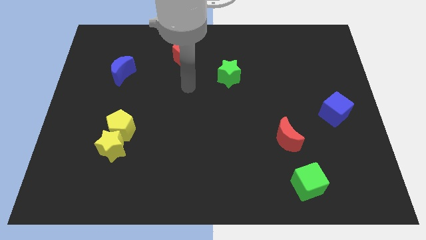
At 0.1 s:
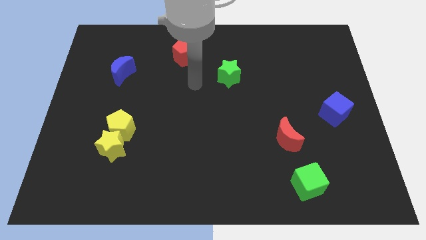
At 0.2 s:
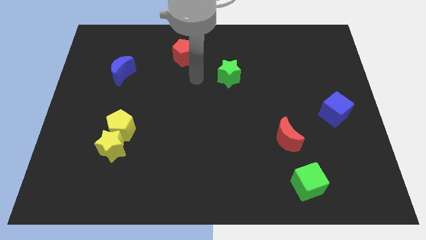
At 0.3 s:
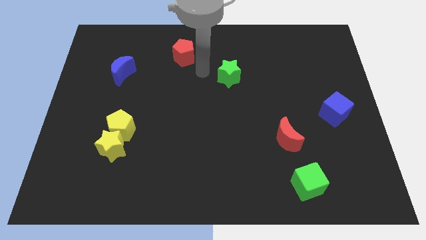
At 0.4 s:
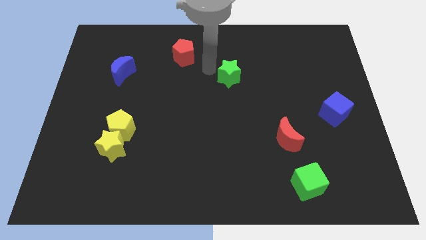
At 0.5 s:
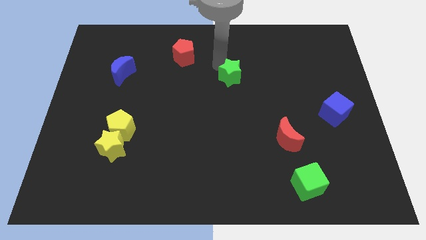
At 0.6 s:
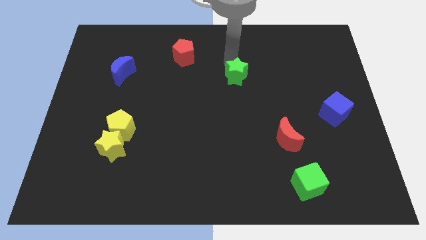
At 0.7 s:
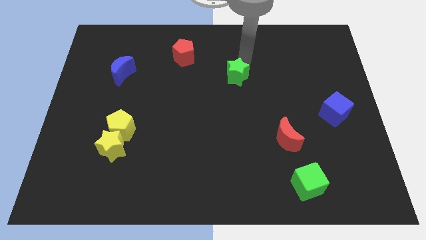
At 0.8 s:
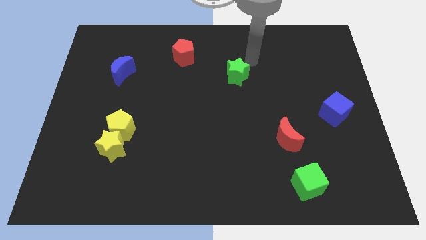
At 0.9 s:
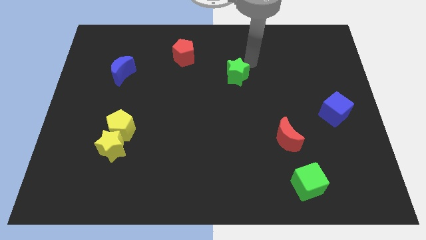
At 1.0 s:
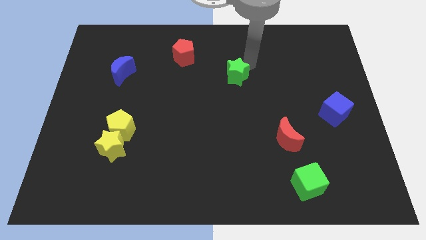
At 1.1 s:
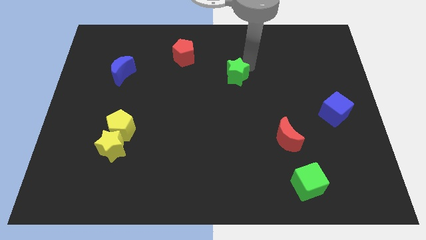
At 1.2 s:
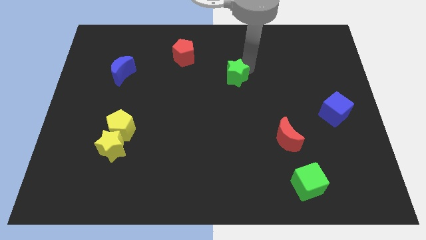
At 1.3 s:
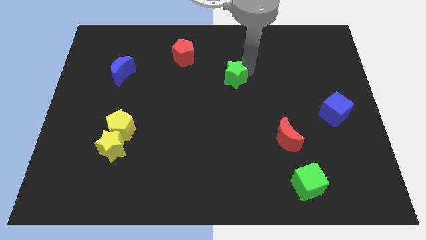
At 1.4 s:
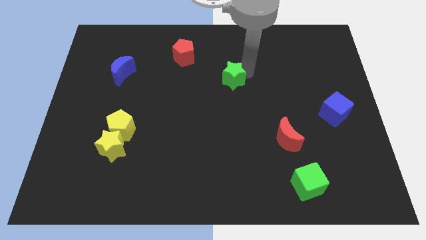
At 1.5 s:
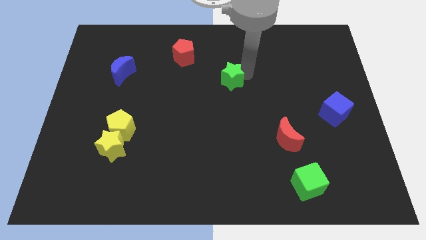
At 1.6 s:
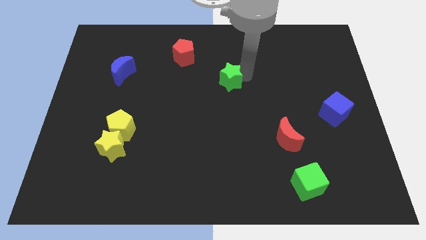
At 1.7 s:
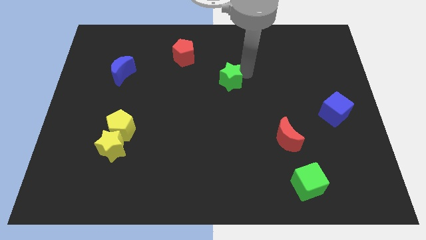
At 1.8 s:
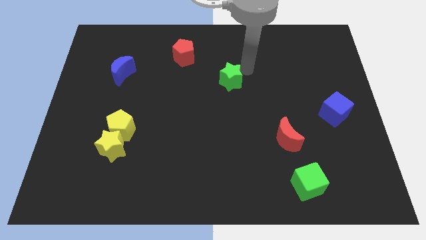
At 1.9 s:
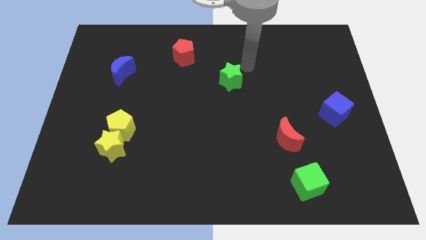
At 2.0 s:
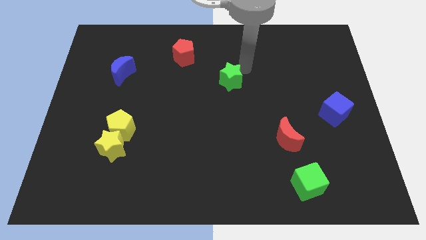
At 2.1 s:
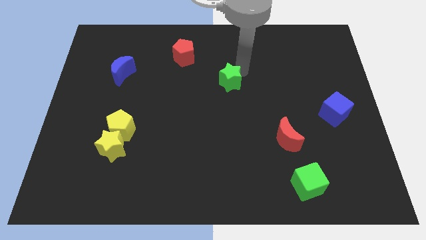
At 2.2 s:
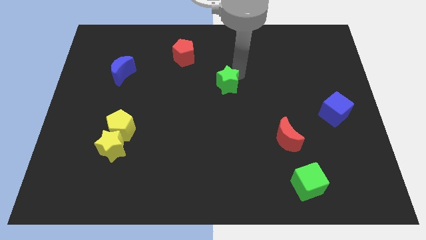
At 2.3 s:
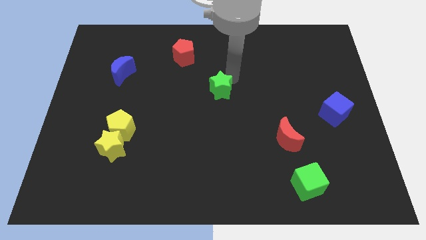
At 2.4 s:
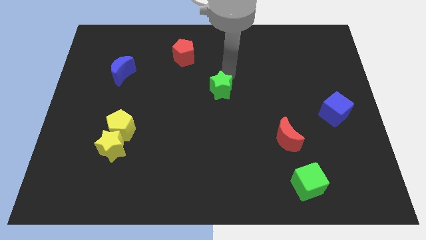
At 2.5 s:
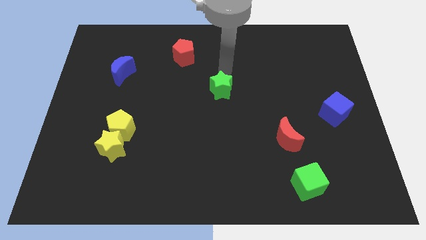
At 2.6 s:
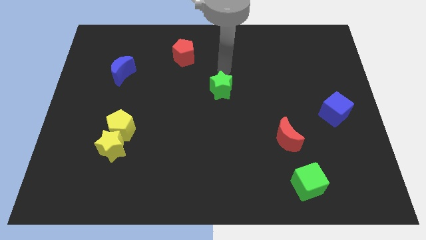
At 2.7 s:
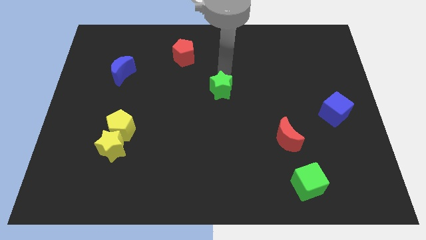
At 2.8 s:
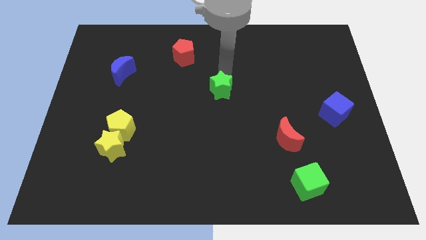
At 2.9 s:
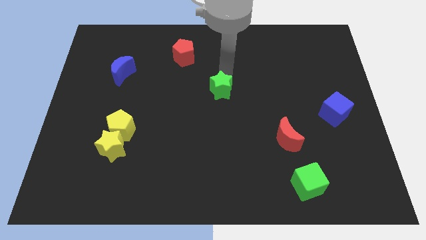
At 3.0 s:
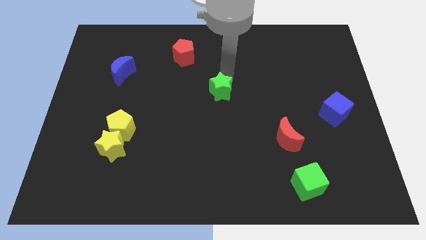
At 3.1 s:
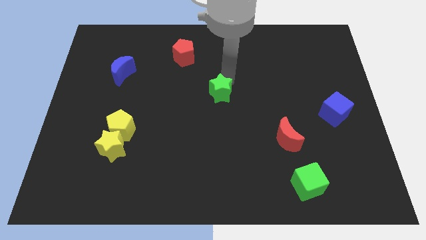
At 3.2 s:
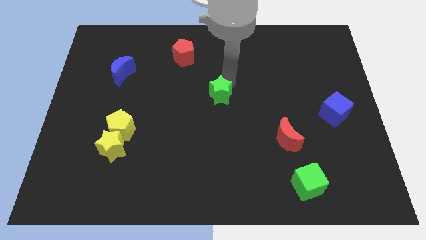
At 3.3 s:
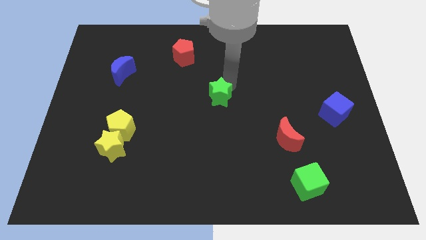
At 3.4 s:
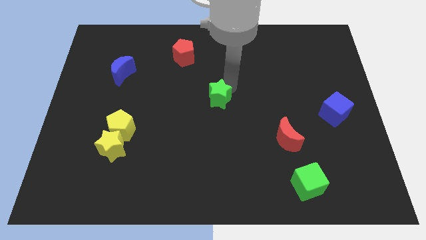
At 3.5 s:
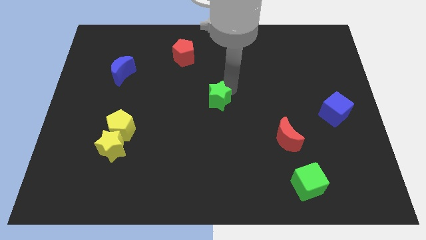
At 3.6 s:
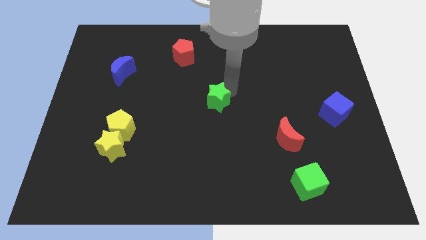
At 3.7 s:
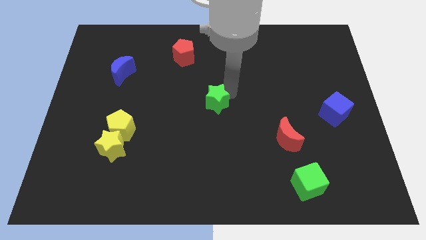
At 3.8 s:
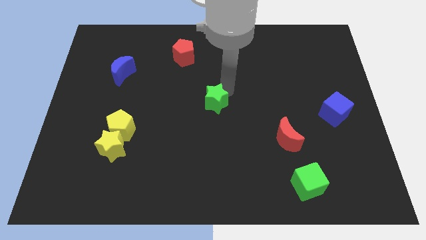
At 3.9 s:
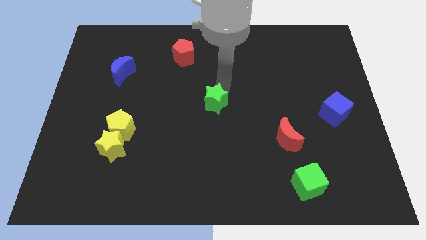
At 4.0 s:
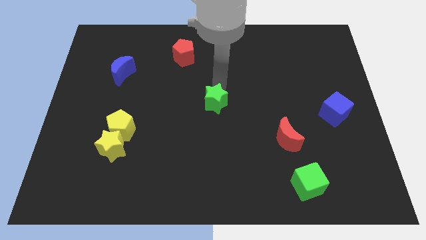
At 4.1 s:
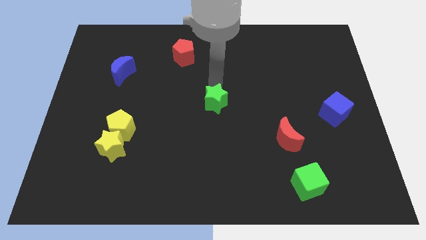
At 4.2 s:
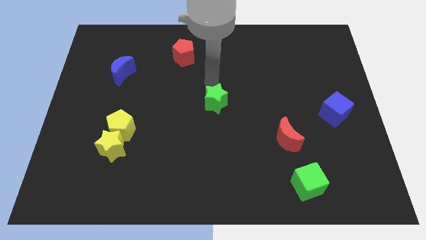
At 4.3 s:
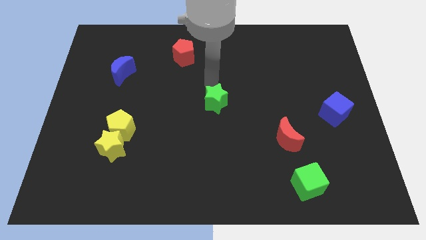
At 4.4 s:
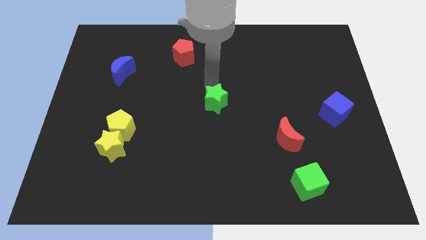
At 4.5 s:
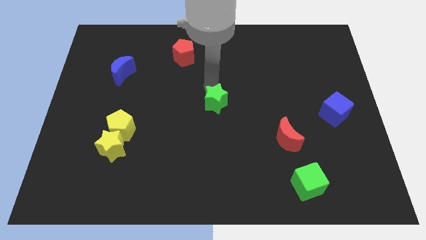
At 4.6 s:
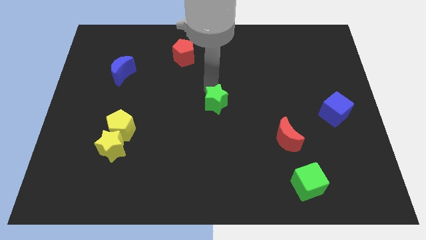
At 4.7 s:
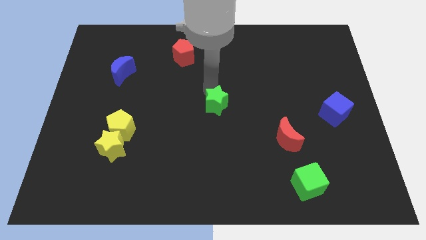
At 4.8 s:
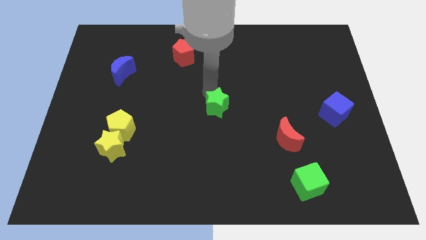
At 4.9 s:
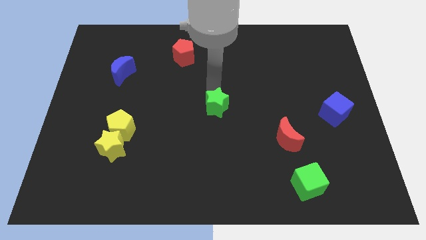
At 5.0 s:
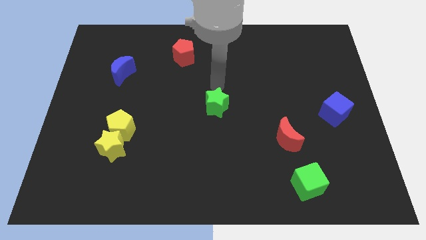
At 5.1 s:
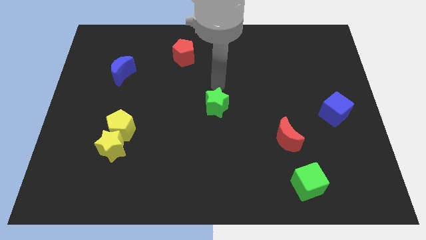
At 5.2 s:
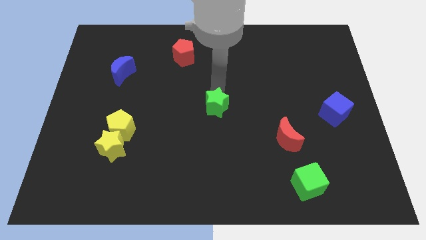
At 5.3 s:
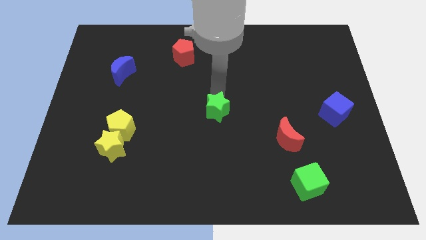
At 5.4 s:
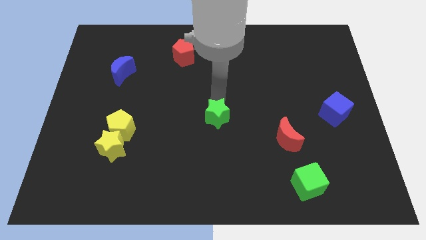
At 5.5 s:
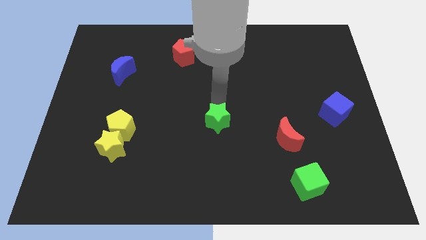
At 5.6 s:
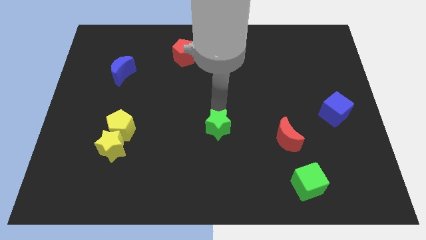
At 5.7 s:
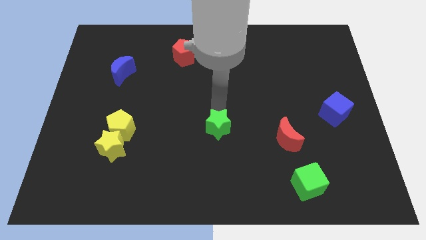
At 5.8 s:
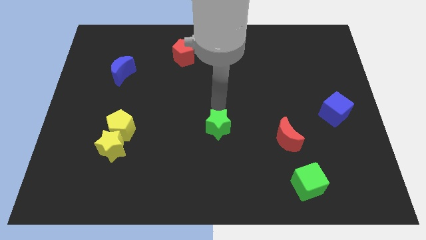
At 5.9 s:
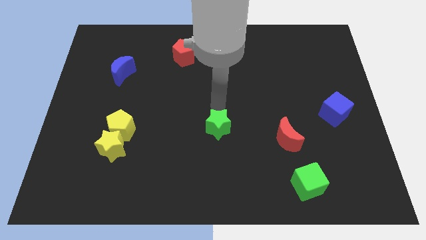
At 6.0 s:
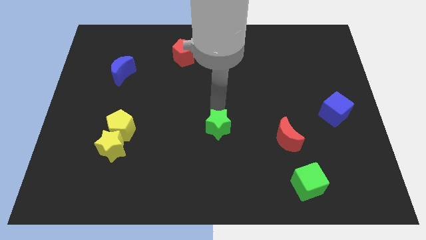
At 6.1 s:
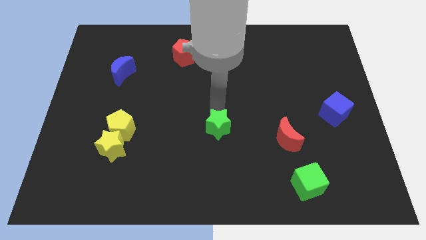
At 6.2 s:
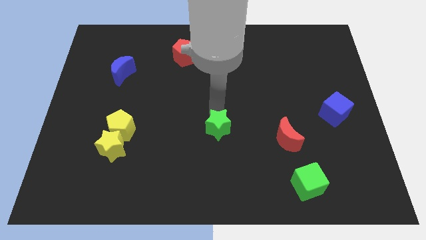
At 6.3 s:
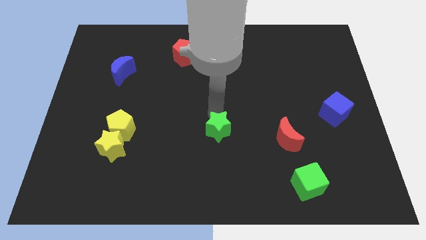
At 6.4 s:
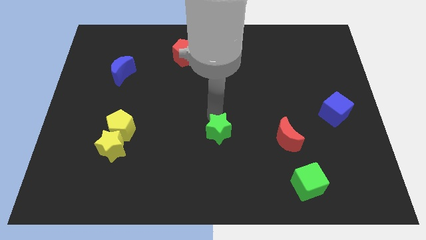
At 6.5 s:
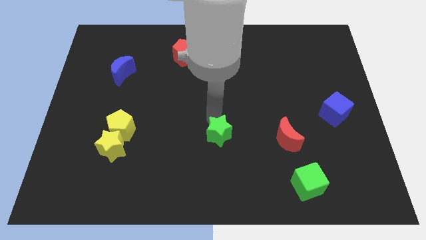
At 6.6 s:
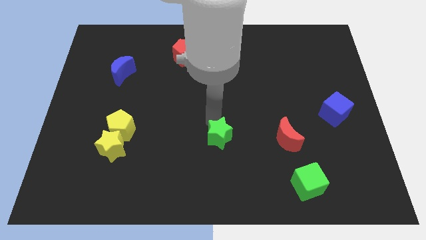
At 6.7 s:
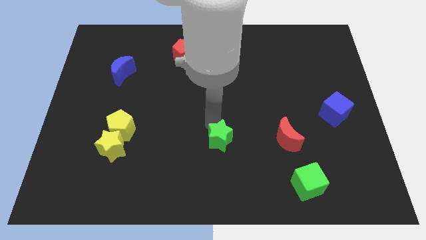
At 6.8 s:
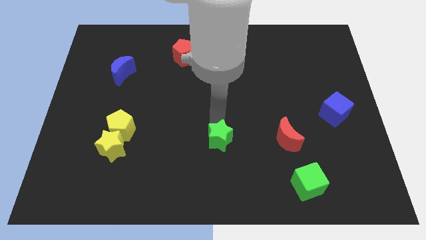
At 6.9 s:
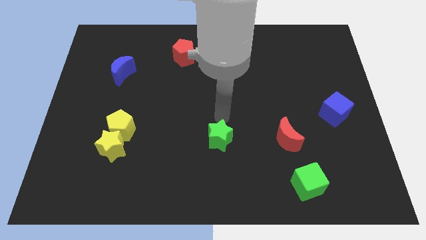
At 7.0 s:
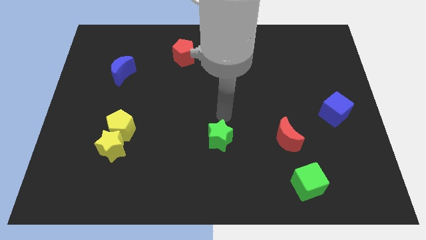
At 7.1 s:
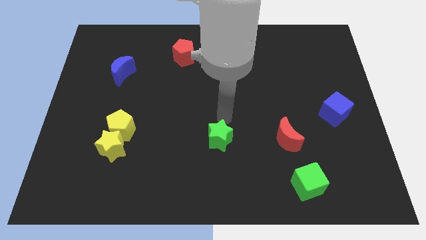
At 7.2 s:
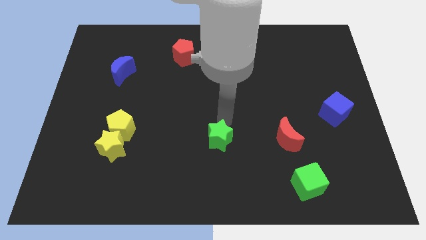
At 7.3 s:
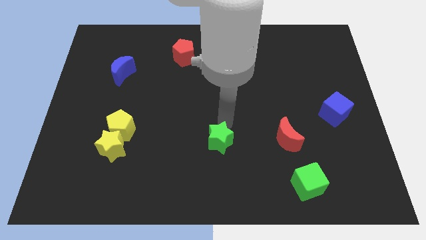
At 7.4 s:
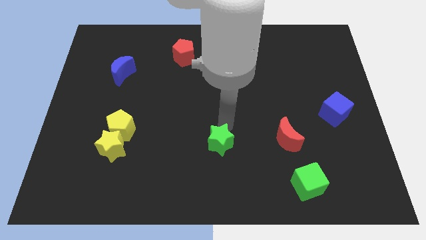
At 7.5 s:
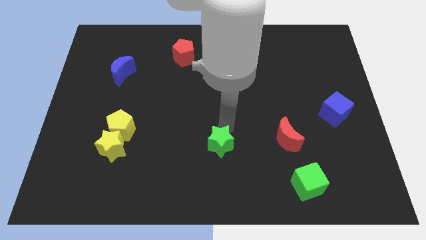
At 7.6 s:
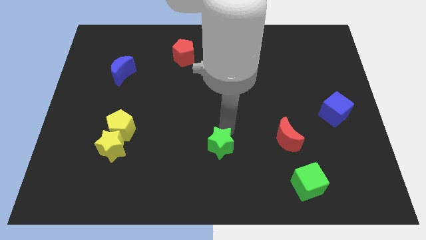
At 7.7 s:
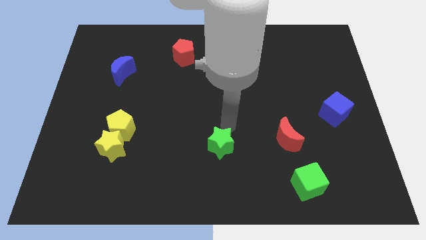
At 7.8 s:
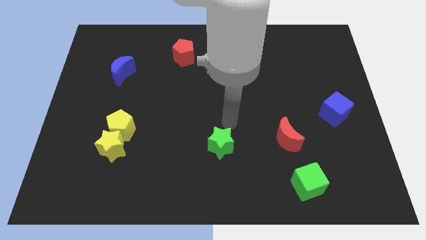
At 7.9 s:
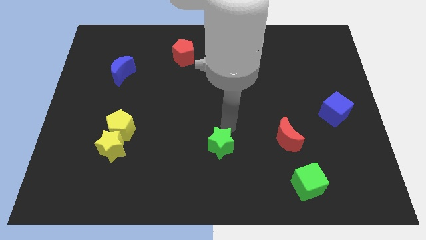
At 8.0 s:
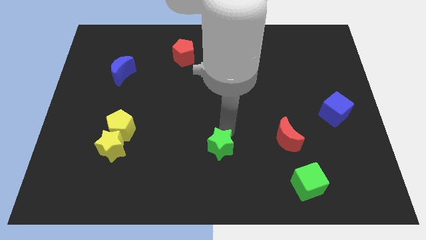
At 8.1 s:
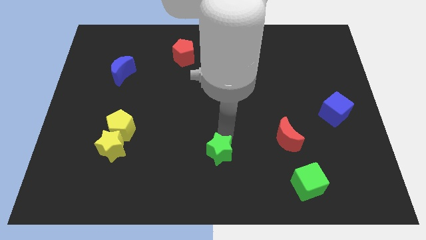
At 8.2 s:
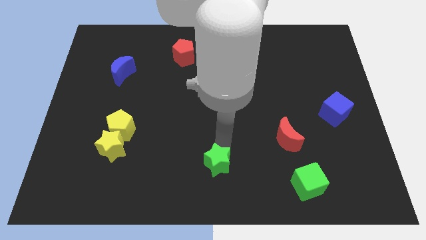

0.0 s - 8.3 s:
move the green star to the bottom
